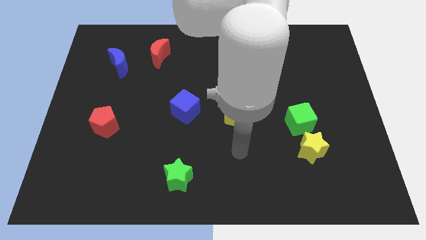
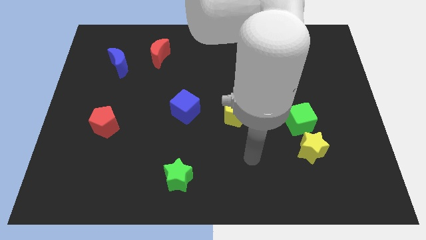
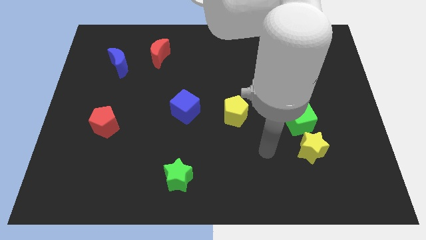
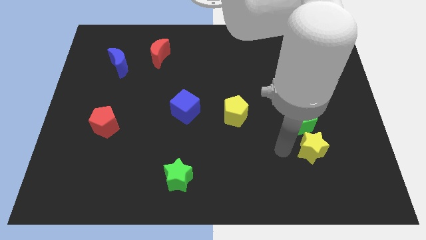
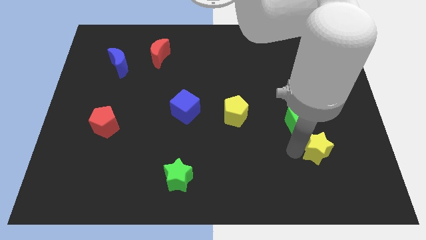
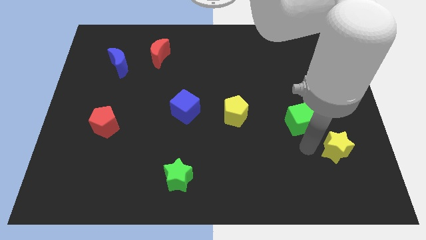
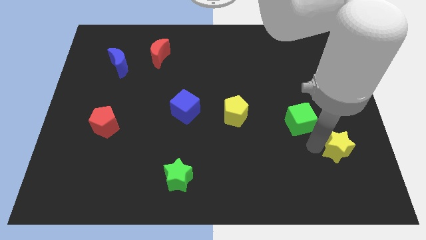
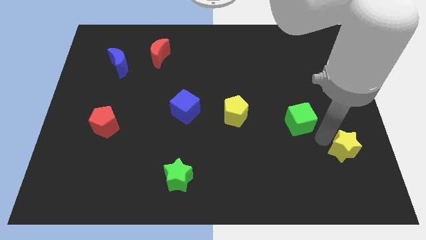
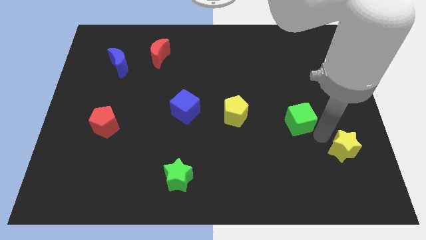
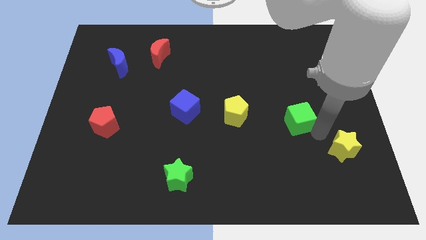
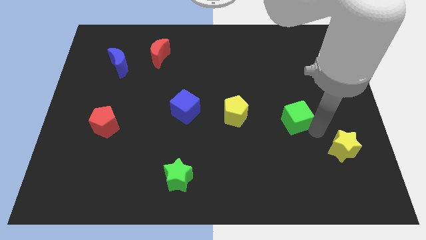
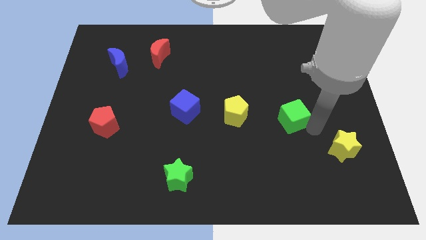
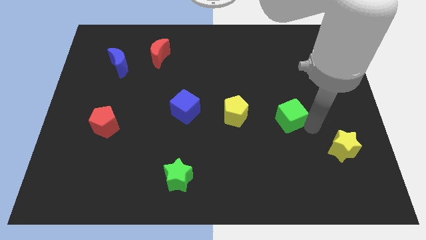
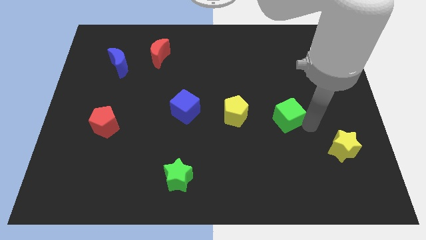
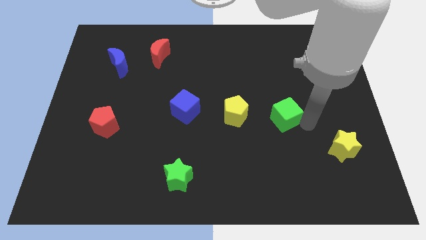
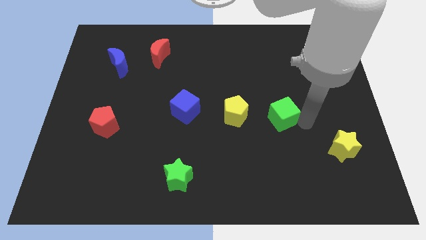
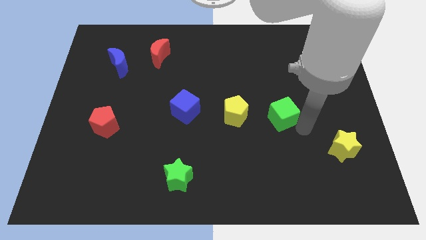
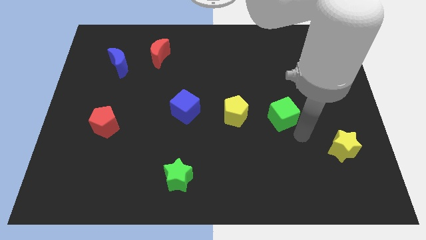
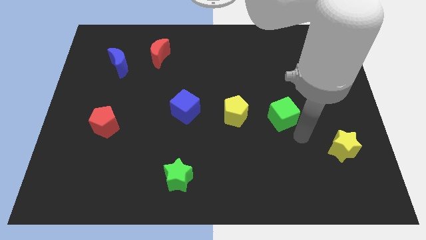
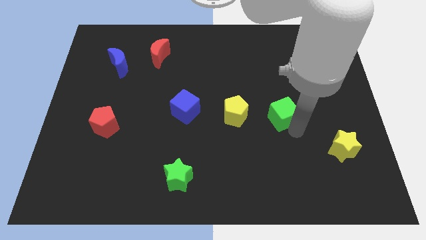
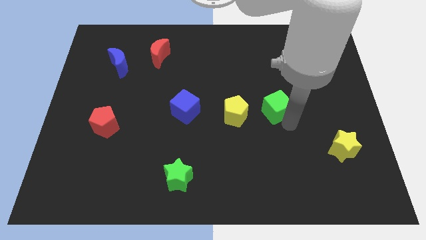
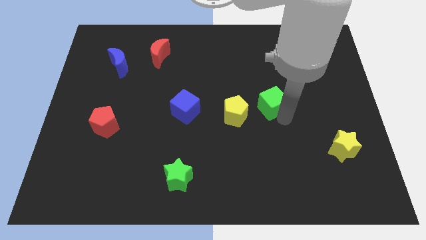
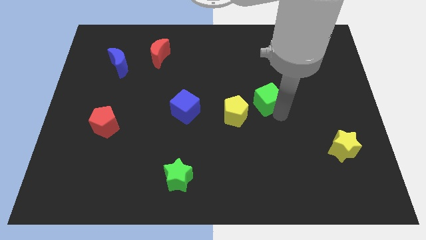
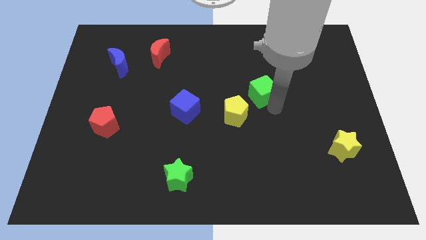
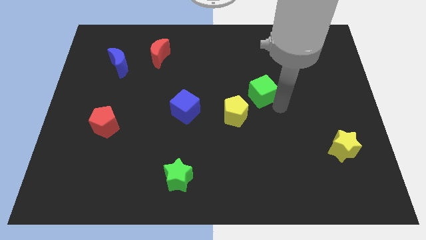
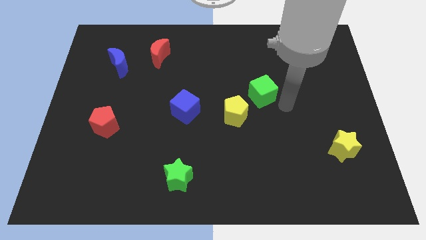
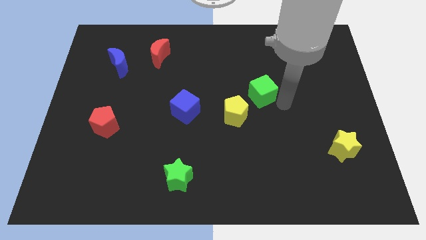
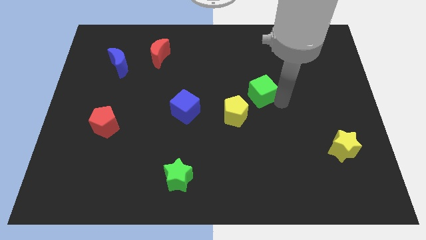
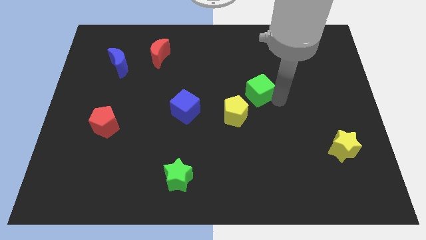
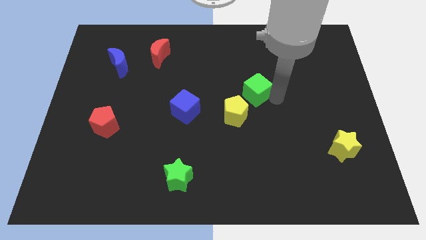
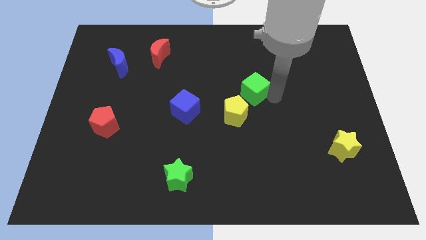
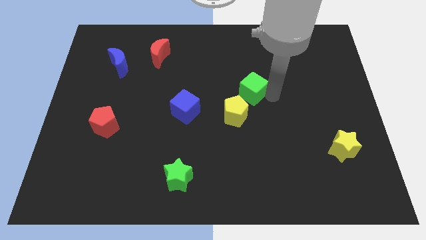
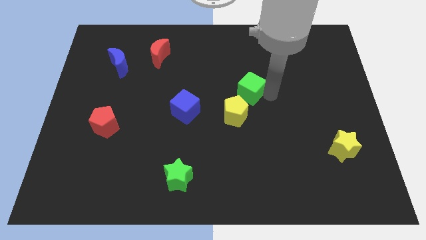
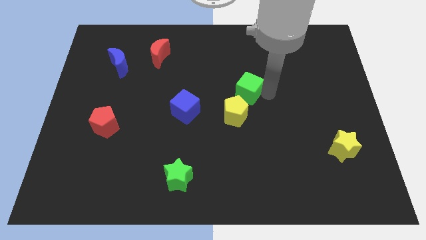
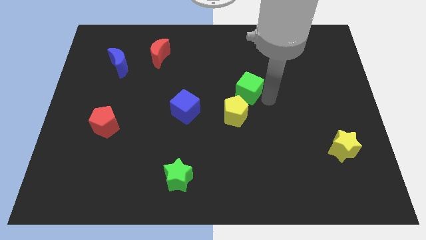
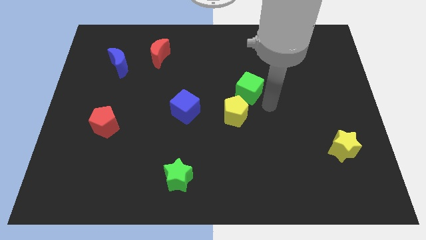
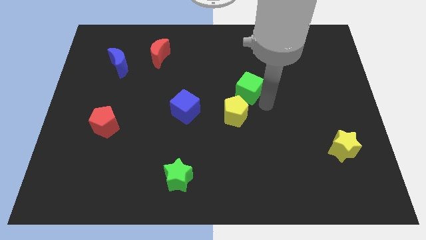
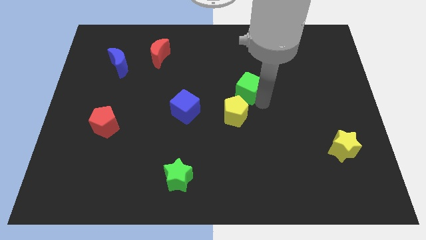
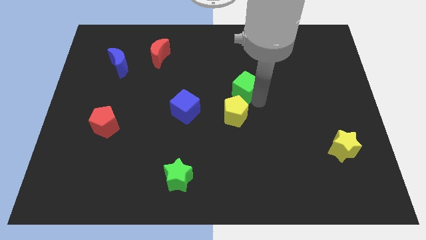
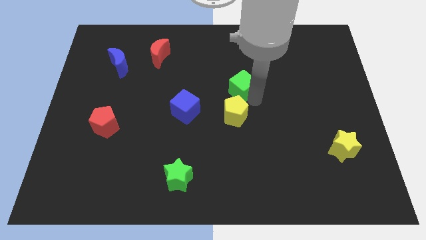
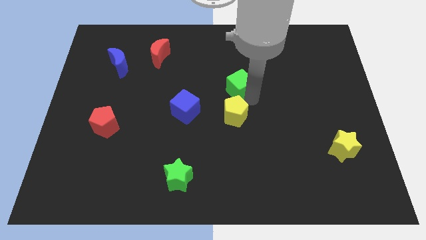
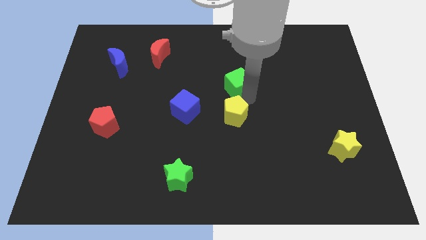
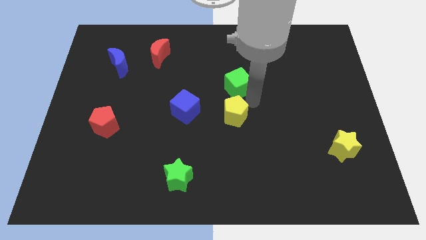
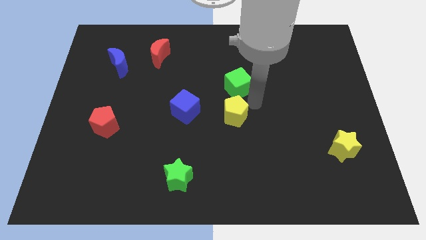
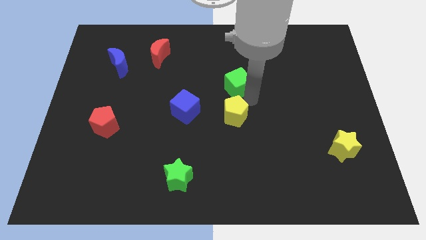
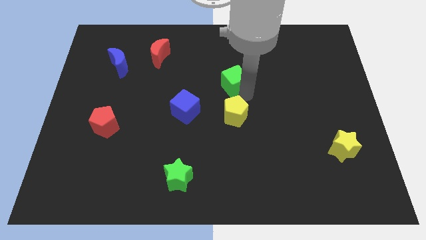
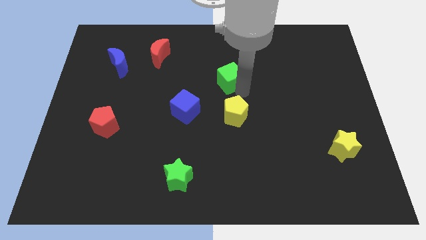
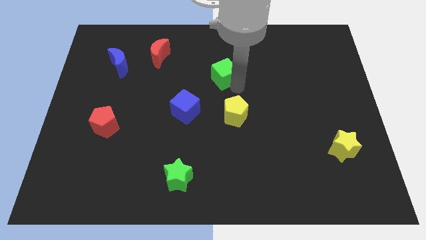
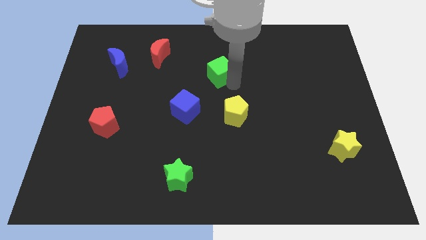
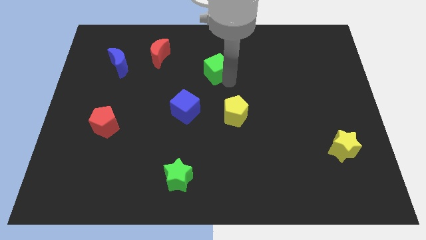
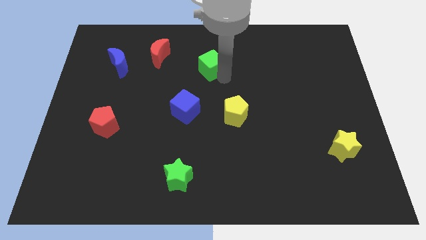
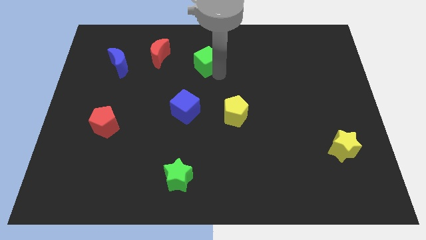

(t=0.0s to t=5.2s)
push the green cube to the right of the red moon
